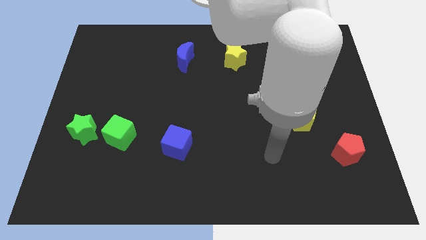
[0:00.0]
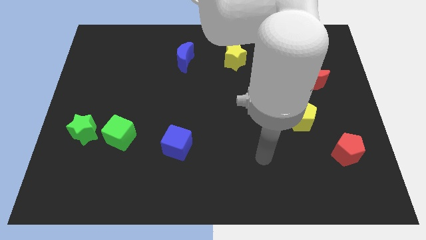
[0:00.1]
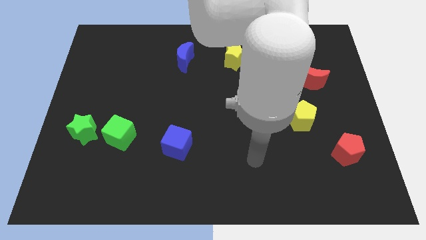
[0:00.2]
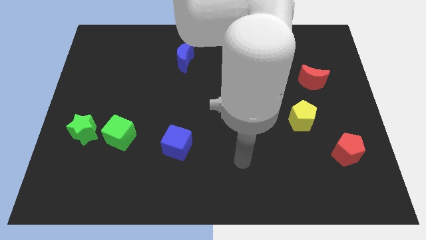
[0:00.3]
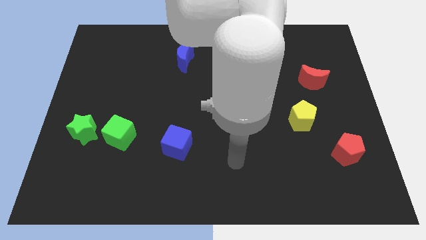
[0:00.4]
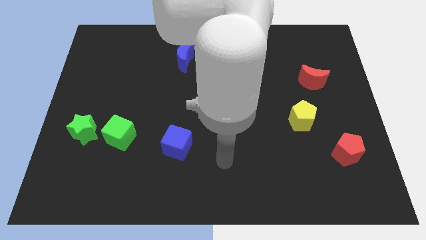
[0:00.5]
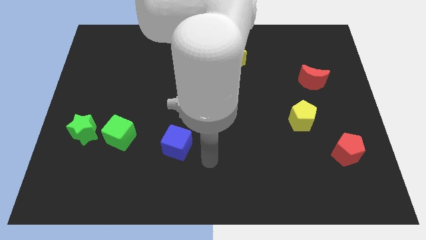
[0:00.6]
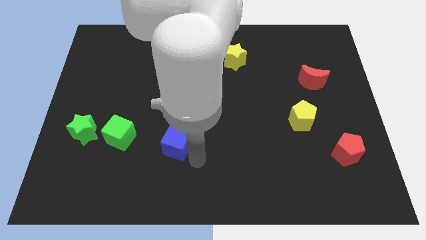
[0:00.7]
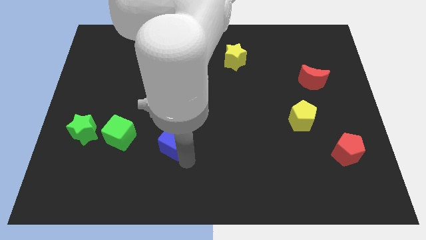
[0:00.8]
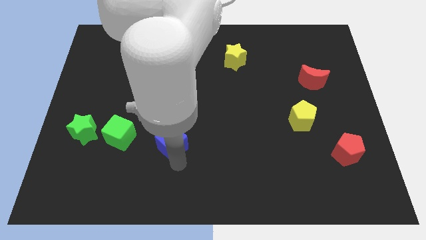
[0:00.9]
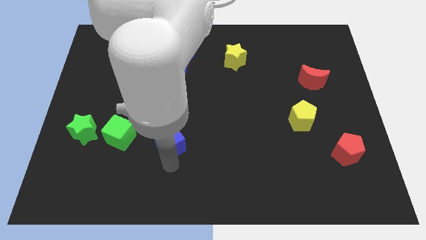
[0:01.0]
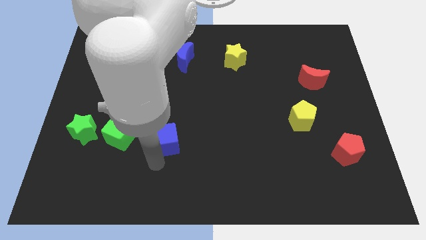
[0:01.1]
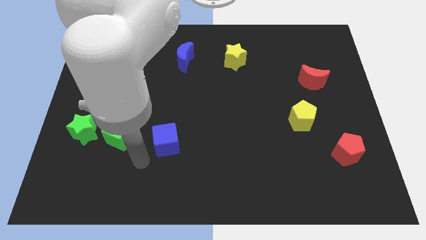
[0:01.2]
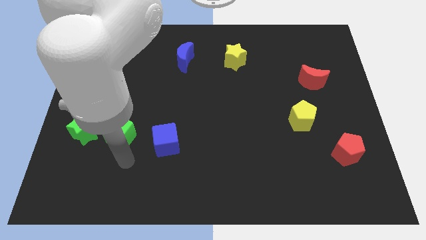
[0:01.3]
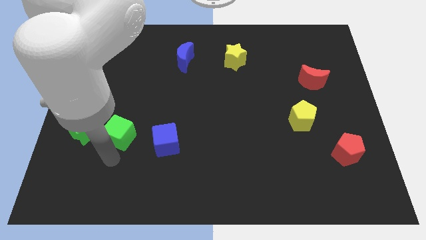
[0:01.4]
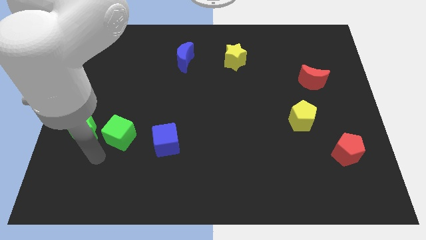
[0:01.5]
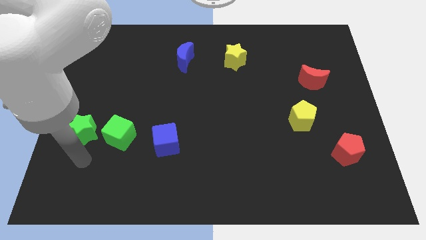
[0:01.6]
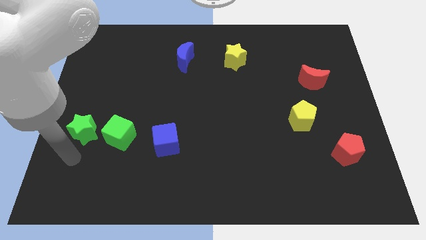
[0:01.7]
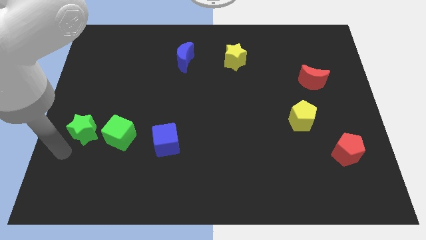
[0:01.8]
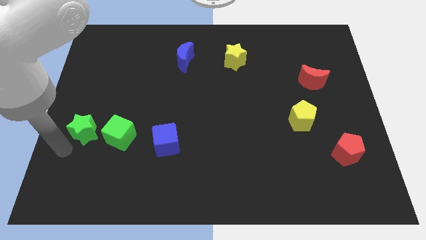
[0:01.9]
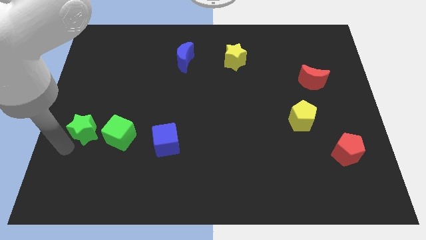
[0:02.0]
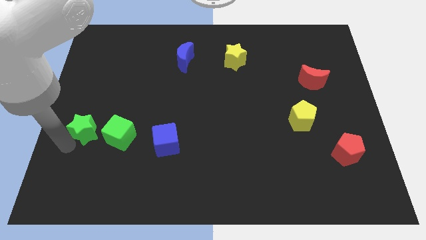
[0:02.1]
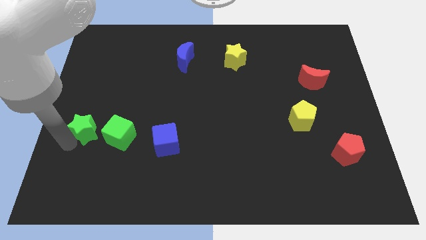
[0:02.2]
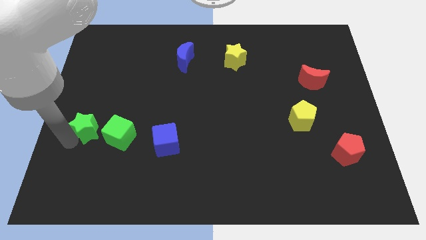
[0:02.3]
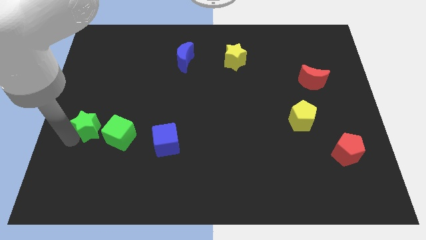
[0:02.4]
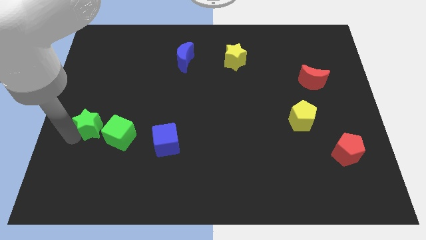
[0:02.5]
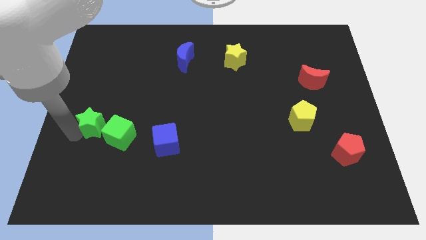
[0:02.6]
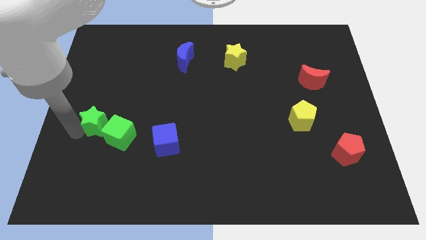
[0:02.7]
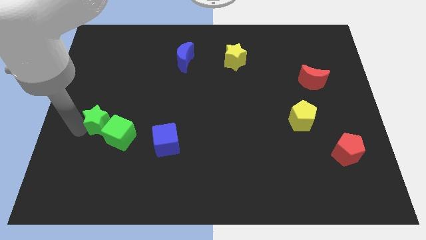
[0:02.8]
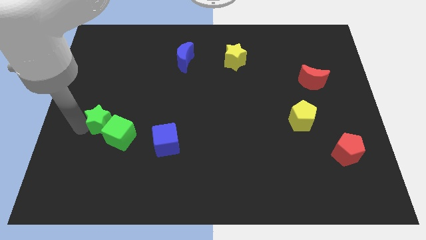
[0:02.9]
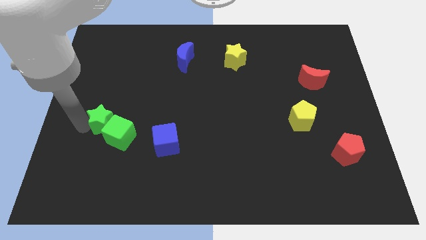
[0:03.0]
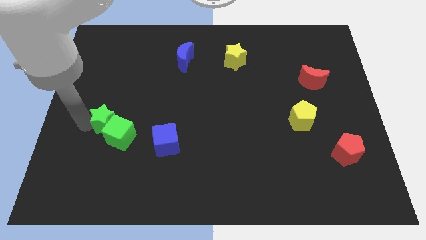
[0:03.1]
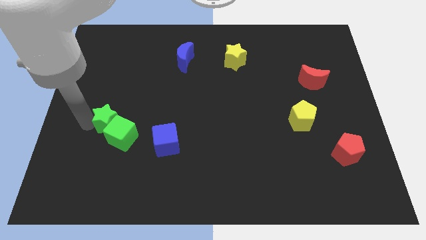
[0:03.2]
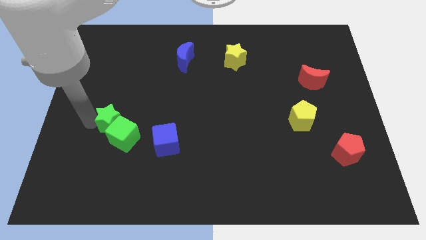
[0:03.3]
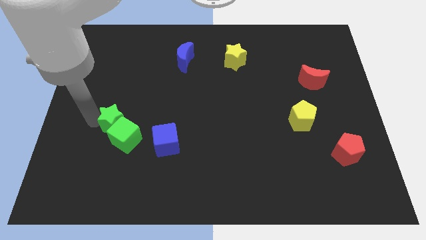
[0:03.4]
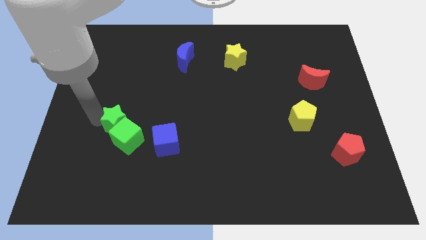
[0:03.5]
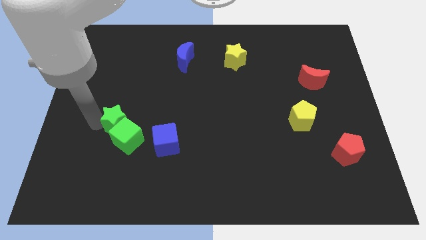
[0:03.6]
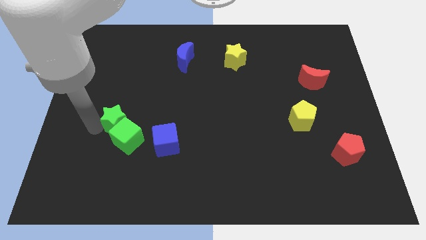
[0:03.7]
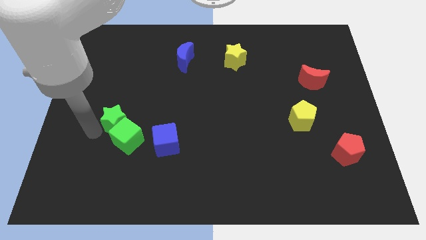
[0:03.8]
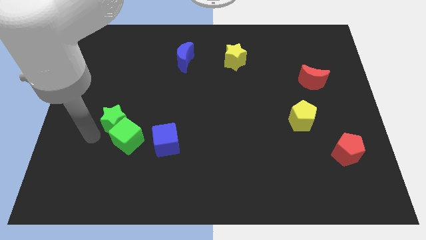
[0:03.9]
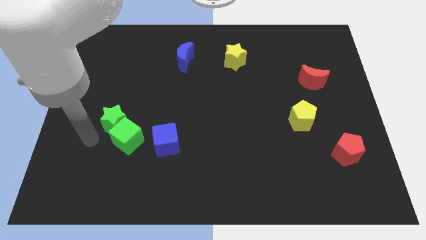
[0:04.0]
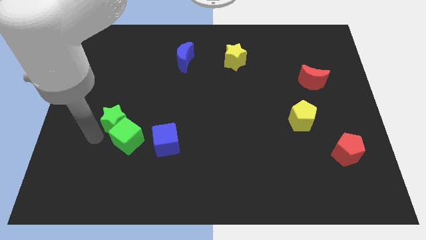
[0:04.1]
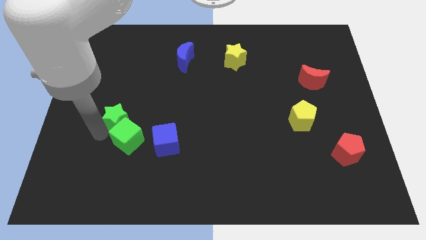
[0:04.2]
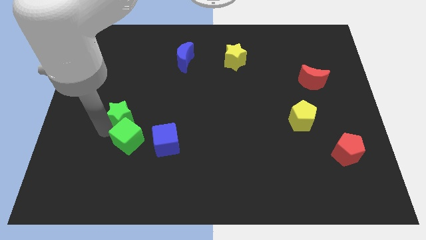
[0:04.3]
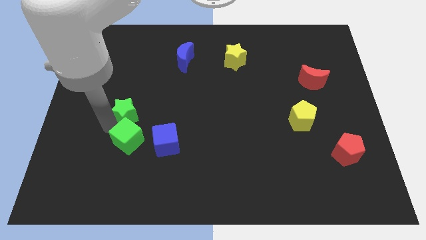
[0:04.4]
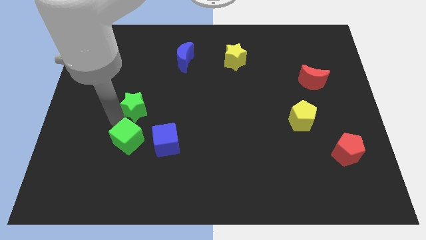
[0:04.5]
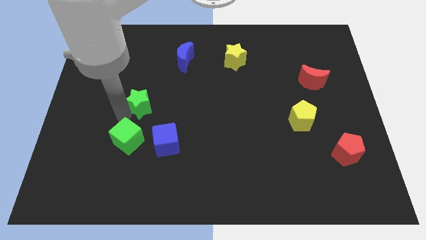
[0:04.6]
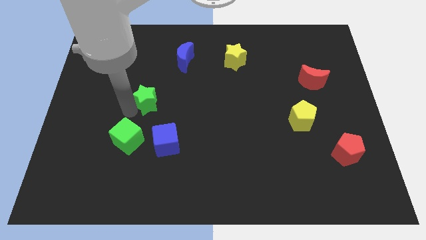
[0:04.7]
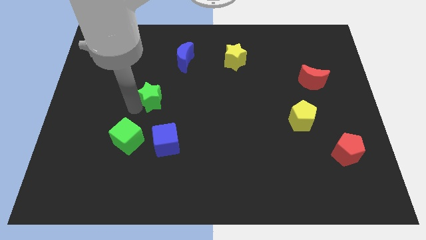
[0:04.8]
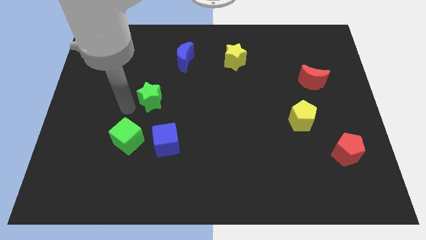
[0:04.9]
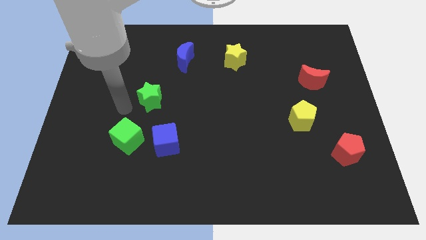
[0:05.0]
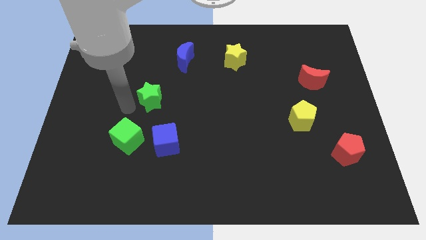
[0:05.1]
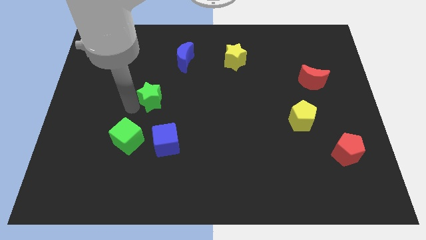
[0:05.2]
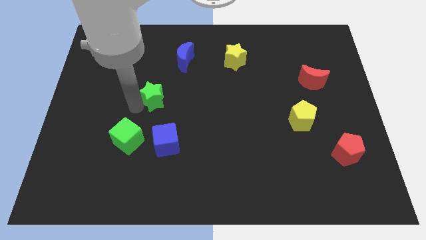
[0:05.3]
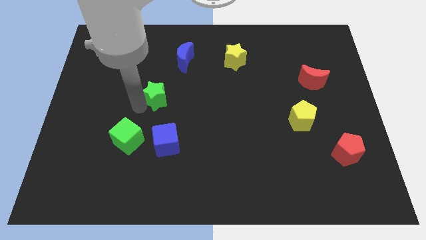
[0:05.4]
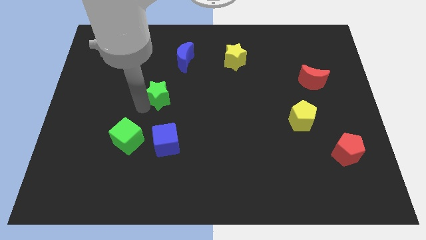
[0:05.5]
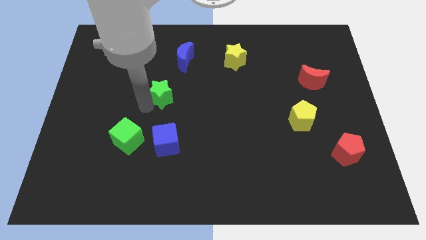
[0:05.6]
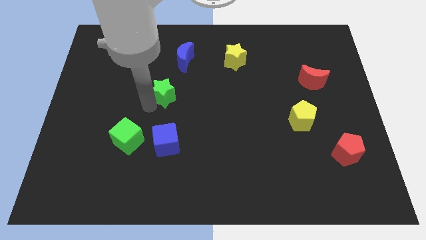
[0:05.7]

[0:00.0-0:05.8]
put the green star to the bottom of the blue moon

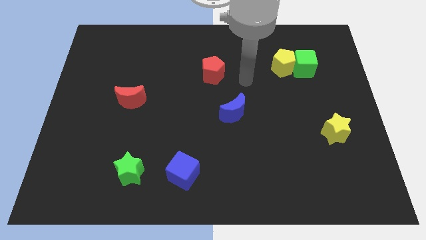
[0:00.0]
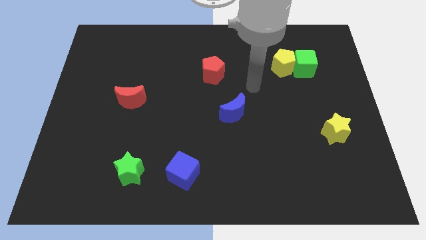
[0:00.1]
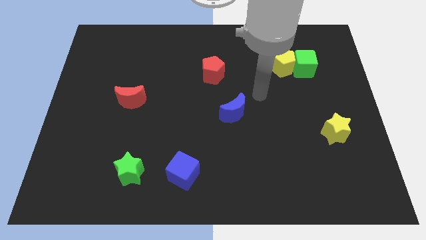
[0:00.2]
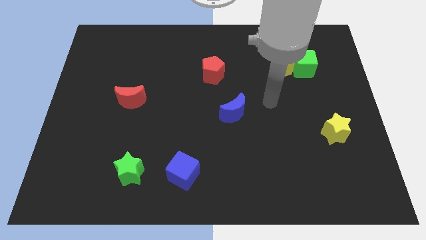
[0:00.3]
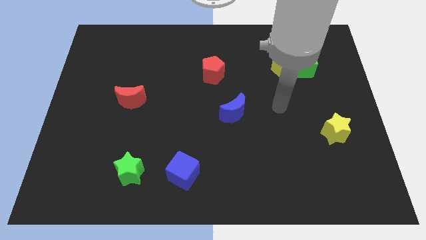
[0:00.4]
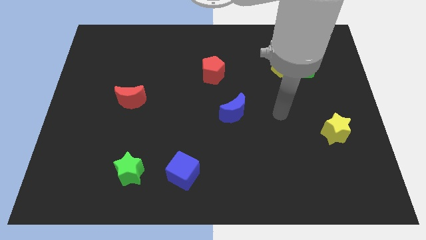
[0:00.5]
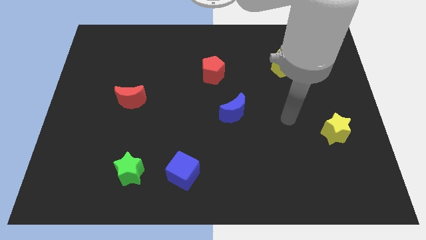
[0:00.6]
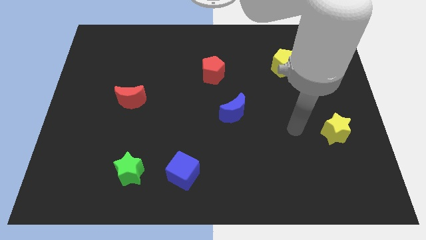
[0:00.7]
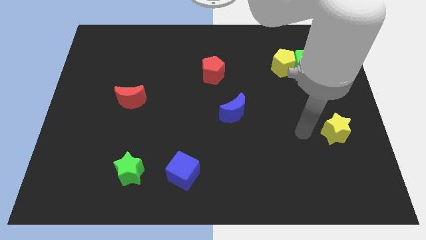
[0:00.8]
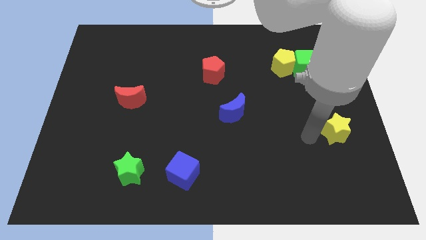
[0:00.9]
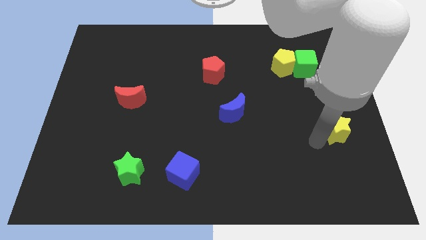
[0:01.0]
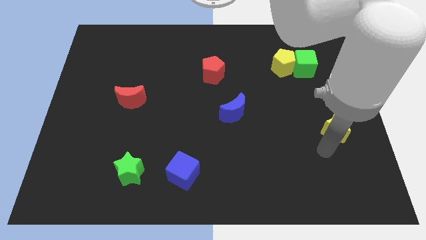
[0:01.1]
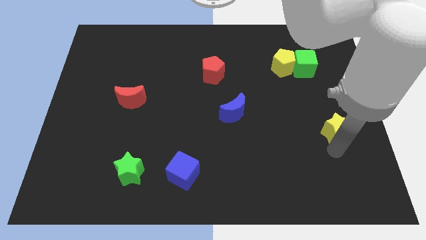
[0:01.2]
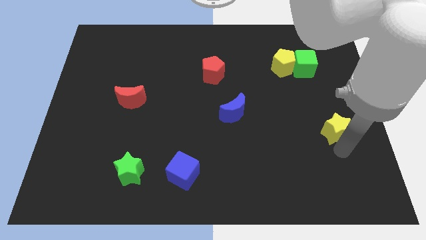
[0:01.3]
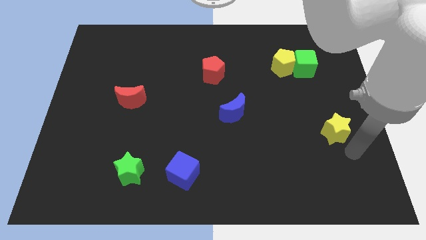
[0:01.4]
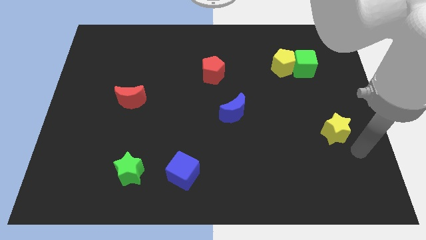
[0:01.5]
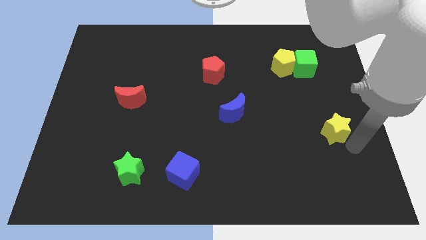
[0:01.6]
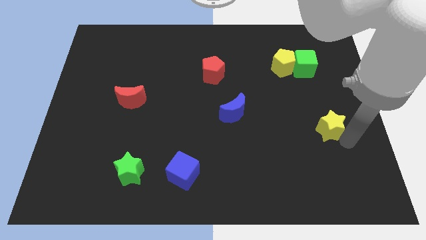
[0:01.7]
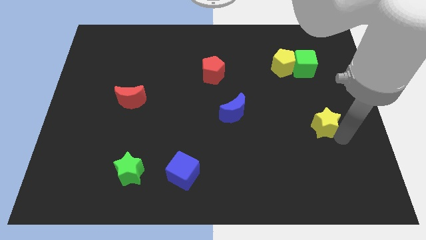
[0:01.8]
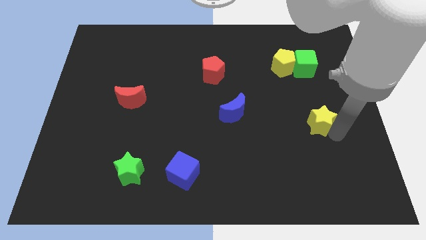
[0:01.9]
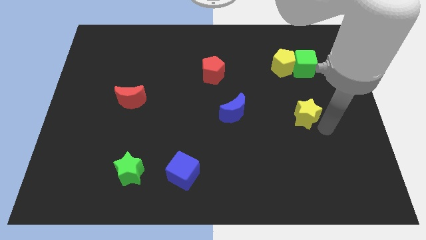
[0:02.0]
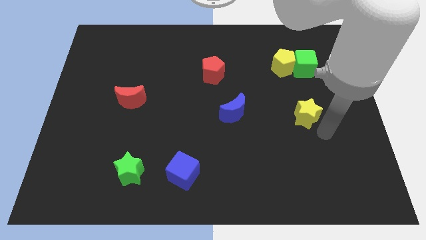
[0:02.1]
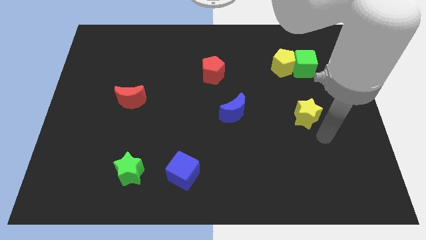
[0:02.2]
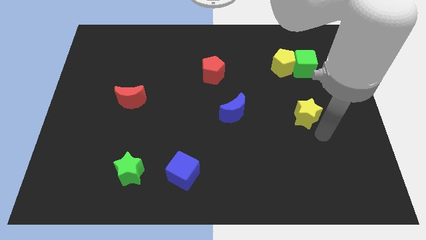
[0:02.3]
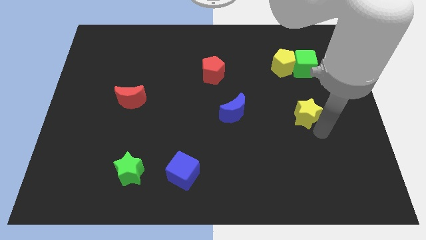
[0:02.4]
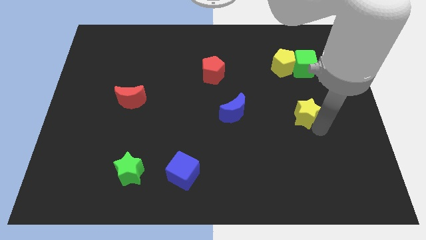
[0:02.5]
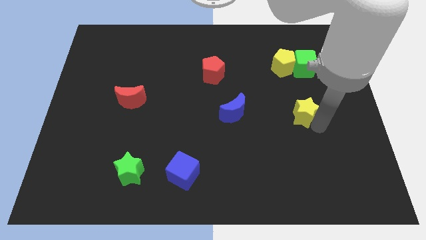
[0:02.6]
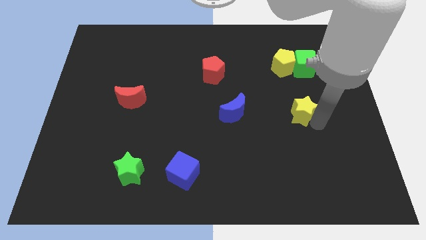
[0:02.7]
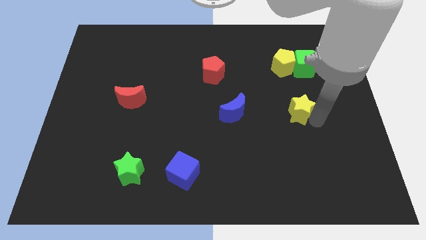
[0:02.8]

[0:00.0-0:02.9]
move the yellow star to the bottom side of the yellow pentagon
